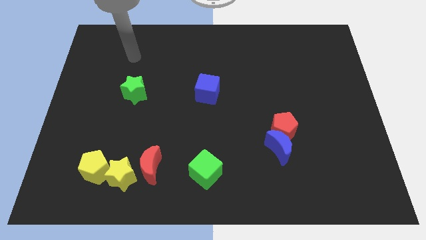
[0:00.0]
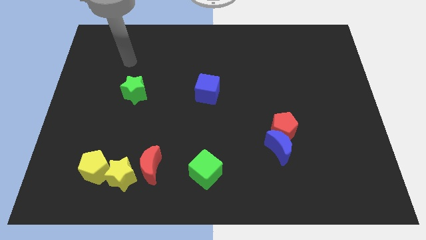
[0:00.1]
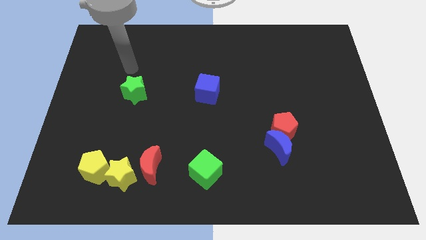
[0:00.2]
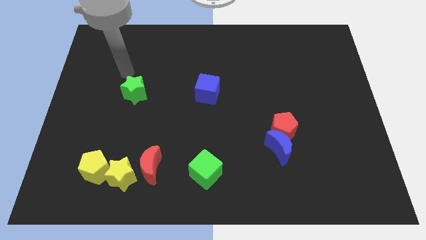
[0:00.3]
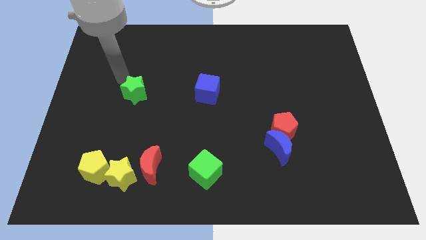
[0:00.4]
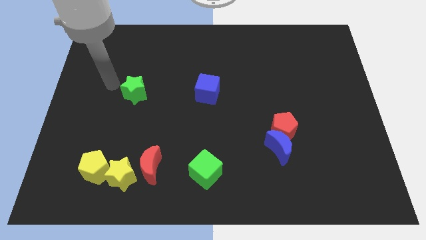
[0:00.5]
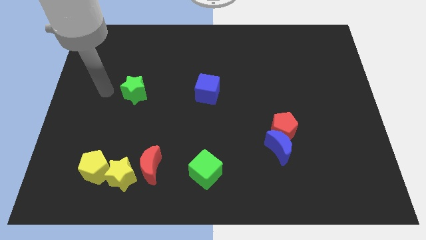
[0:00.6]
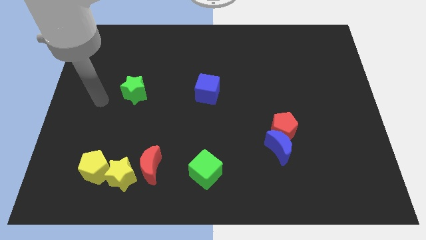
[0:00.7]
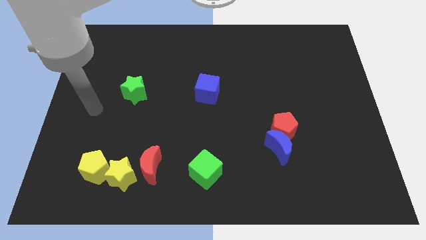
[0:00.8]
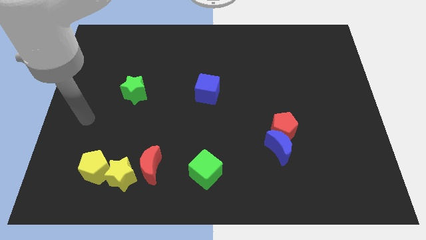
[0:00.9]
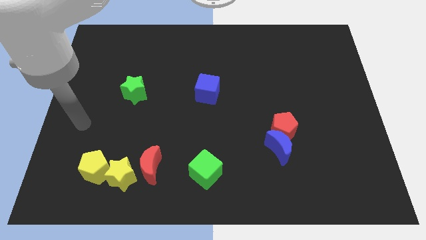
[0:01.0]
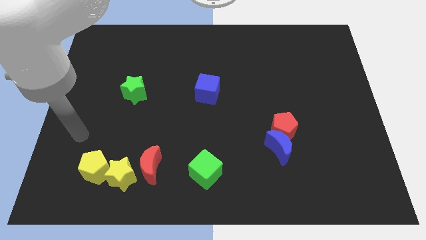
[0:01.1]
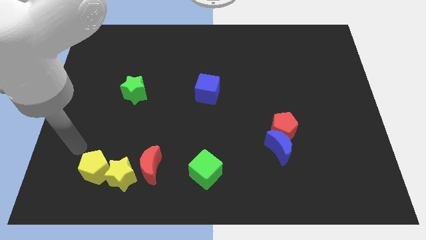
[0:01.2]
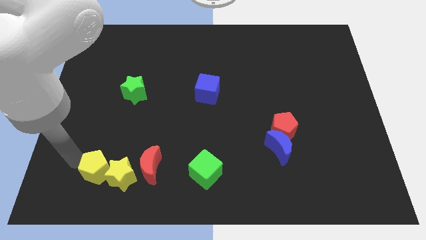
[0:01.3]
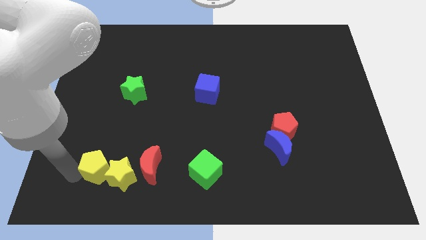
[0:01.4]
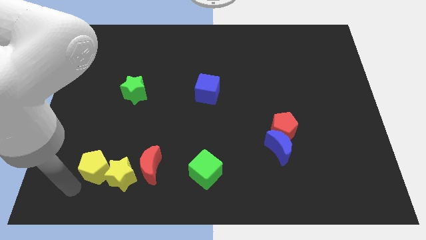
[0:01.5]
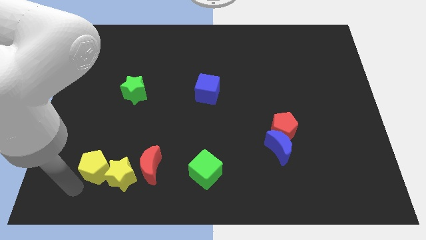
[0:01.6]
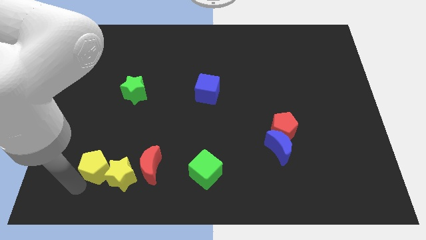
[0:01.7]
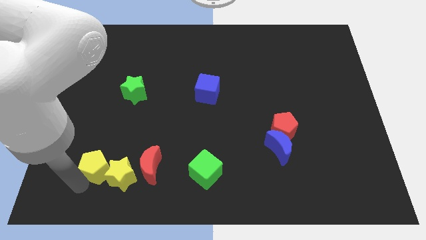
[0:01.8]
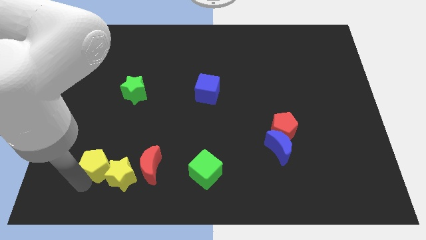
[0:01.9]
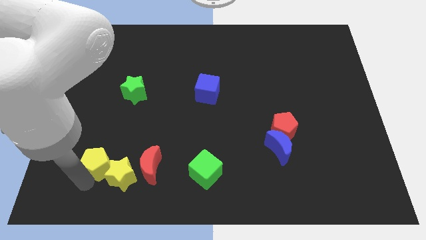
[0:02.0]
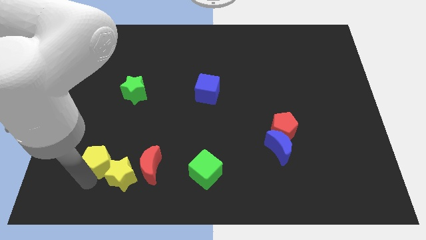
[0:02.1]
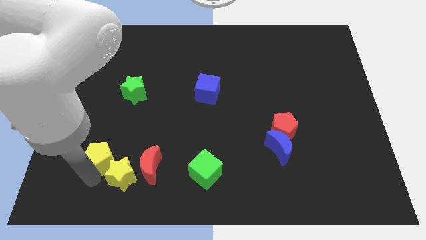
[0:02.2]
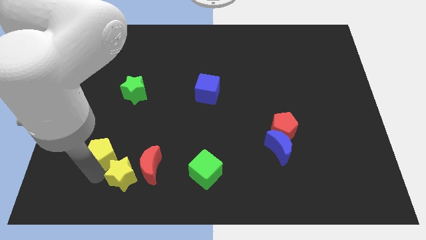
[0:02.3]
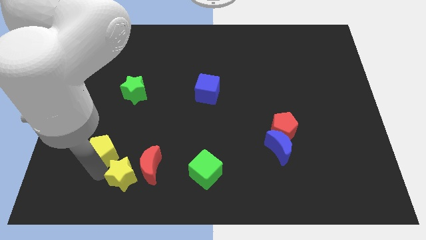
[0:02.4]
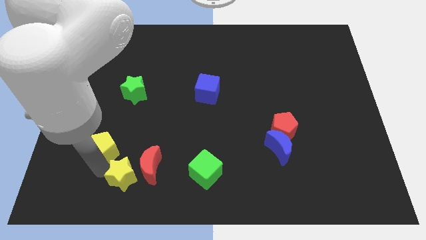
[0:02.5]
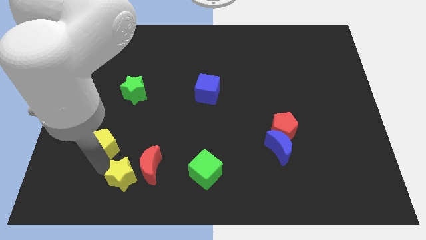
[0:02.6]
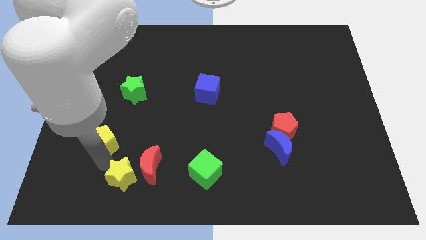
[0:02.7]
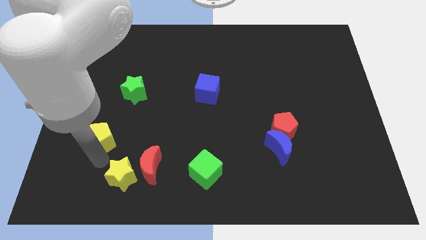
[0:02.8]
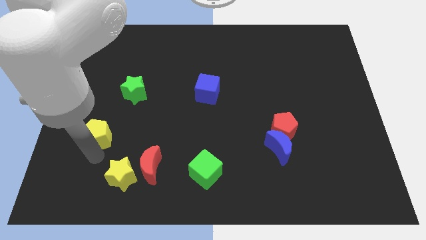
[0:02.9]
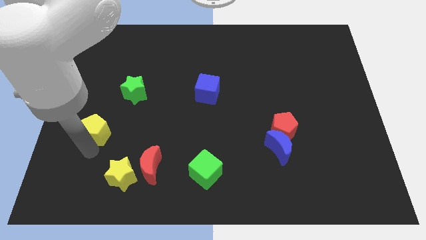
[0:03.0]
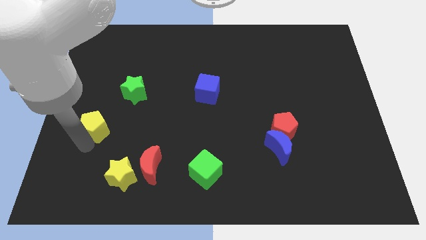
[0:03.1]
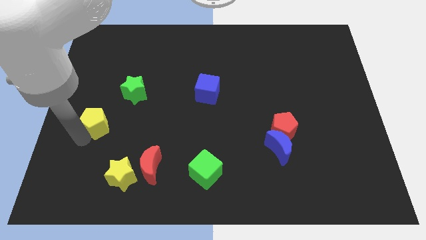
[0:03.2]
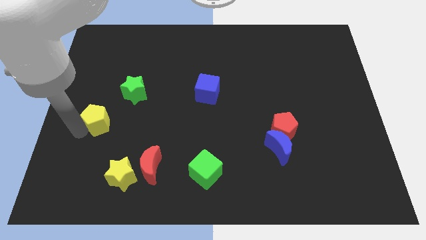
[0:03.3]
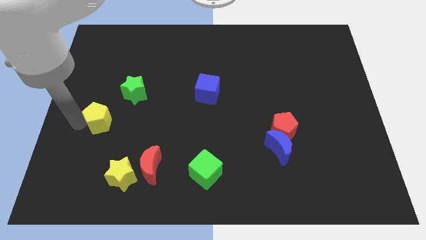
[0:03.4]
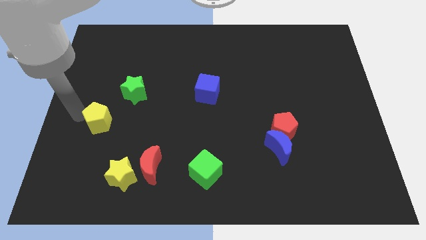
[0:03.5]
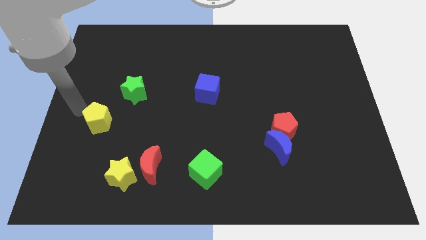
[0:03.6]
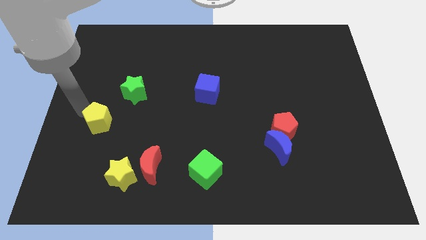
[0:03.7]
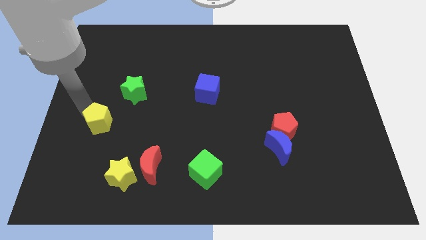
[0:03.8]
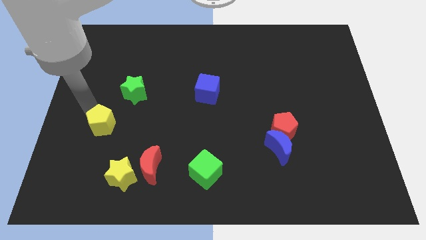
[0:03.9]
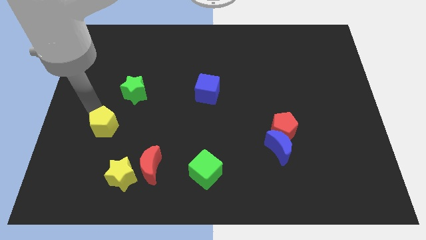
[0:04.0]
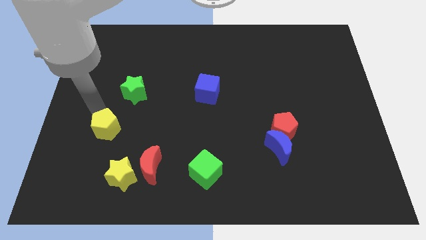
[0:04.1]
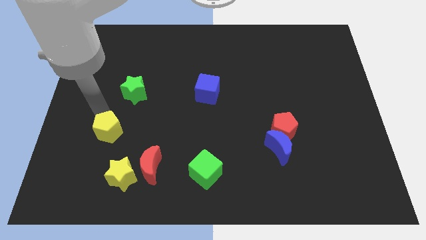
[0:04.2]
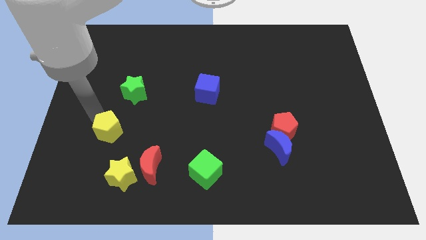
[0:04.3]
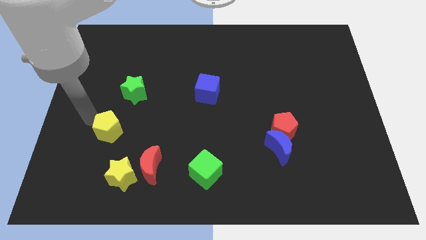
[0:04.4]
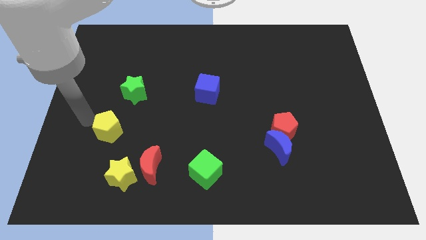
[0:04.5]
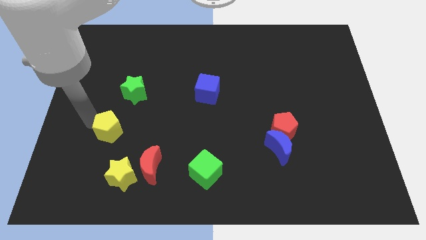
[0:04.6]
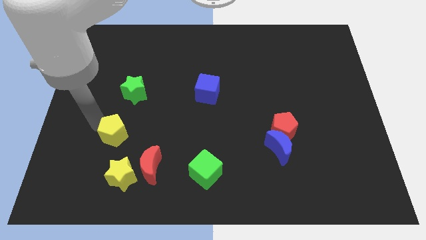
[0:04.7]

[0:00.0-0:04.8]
slightly slide the yellow pentagon upwards and then to the right

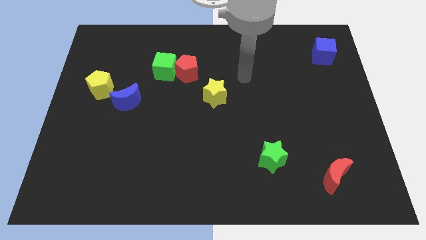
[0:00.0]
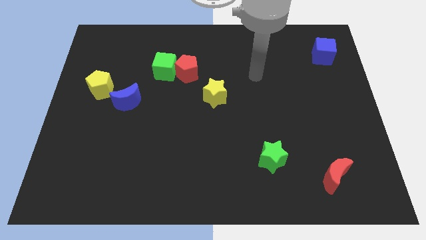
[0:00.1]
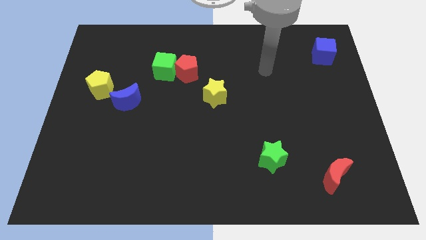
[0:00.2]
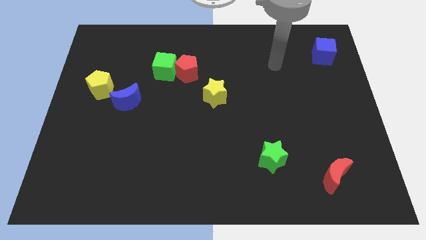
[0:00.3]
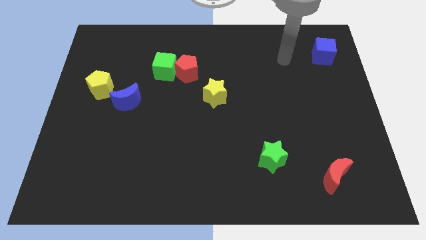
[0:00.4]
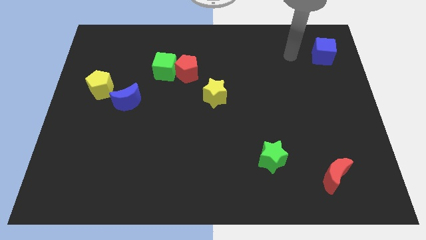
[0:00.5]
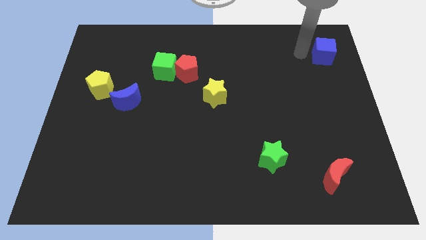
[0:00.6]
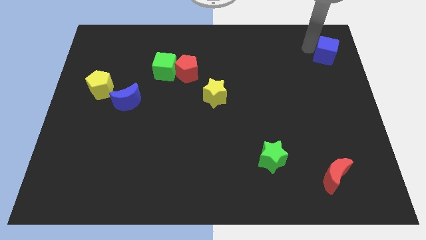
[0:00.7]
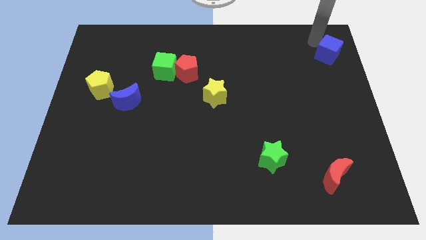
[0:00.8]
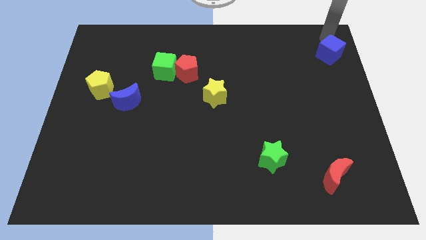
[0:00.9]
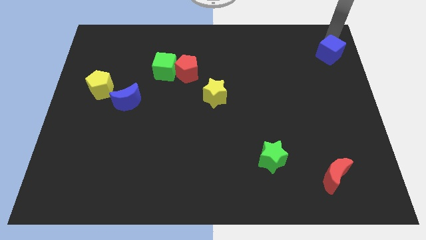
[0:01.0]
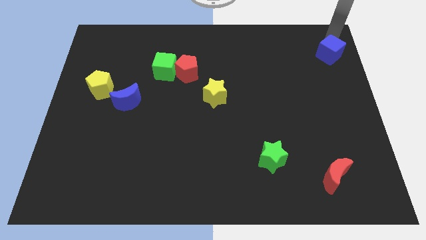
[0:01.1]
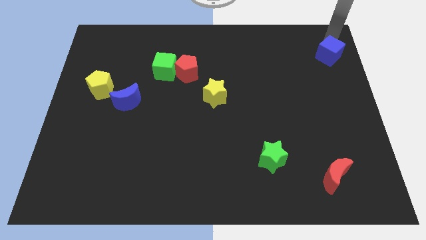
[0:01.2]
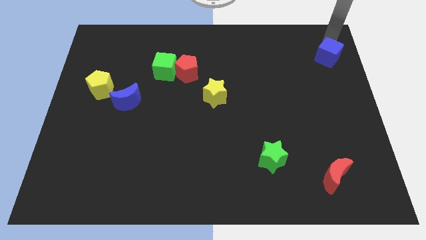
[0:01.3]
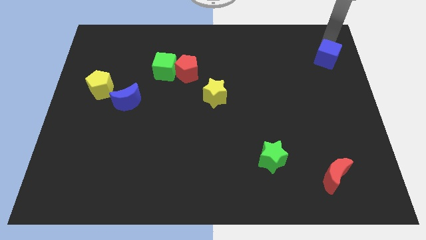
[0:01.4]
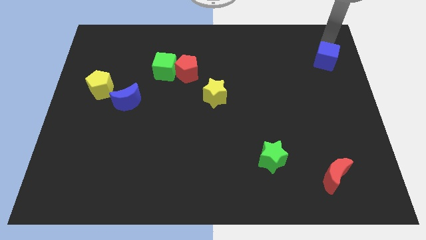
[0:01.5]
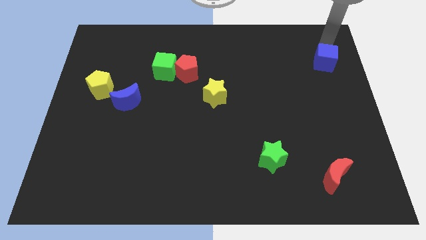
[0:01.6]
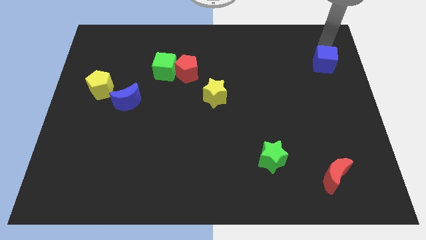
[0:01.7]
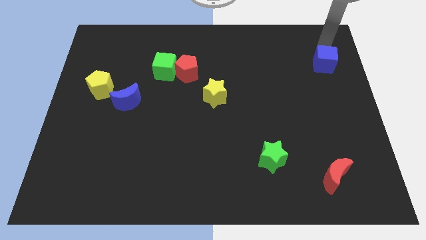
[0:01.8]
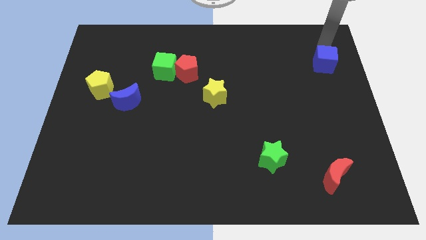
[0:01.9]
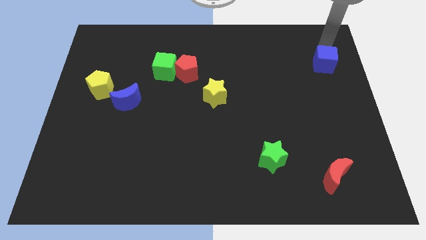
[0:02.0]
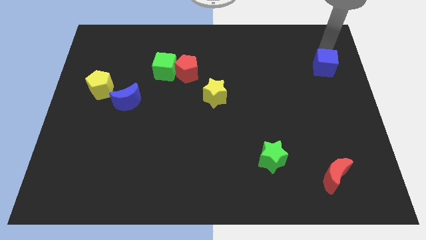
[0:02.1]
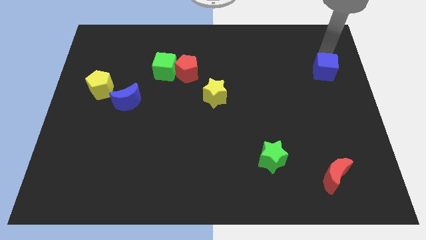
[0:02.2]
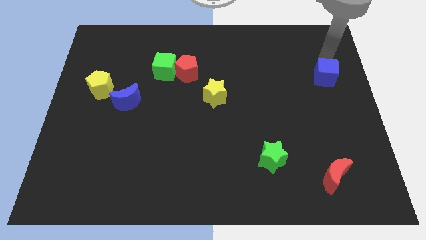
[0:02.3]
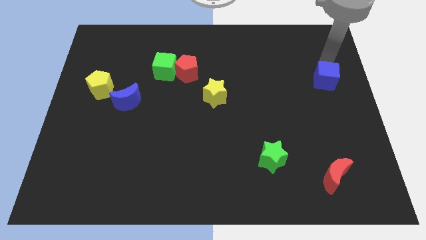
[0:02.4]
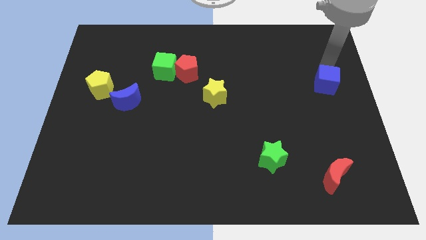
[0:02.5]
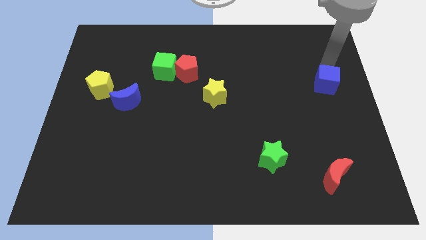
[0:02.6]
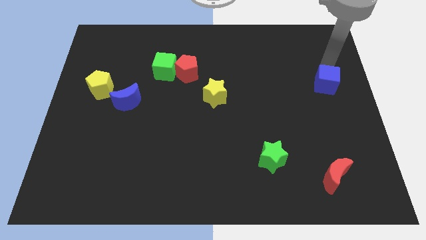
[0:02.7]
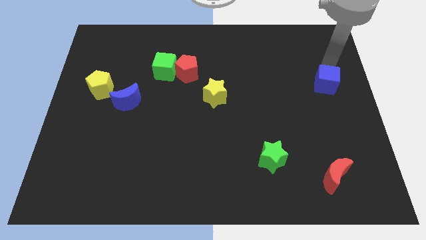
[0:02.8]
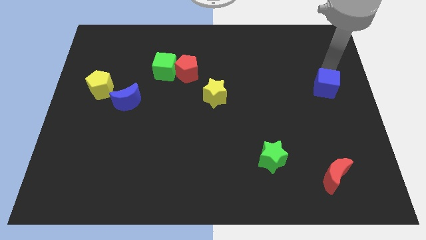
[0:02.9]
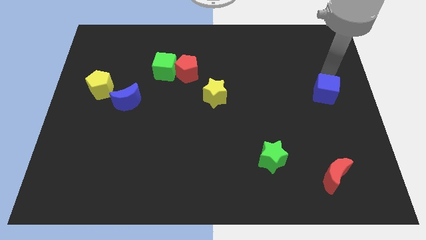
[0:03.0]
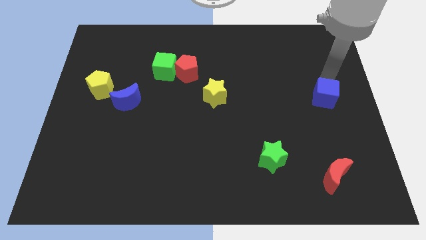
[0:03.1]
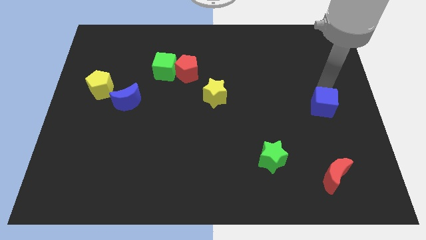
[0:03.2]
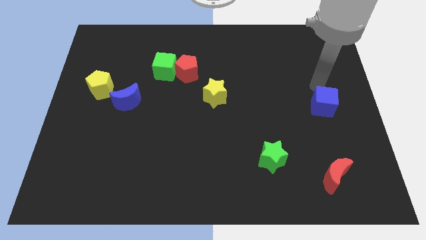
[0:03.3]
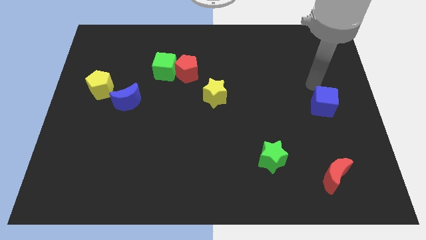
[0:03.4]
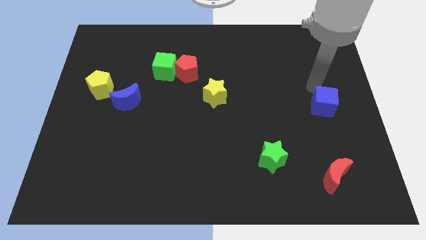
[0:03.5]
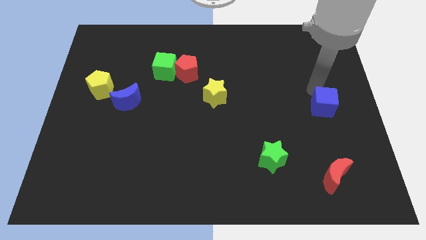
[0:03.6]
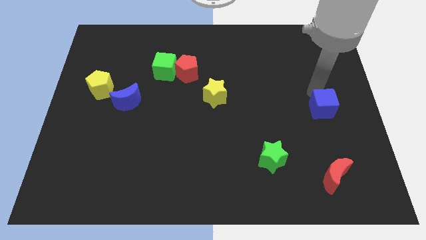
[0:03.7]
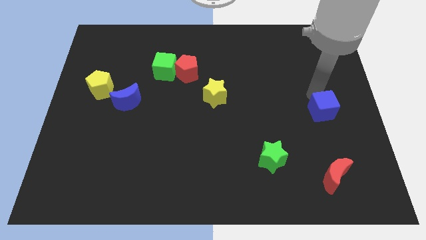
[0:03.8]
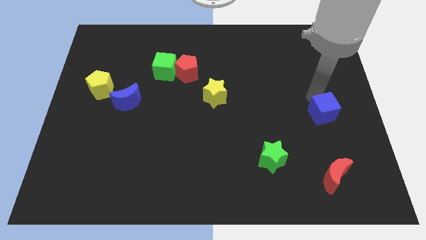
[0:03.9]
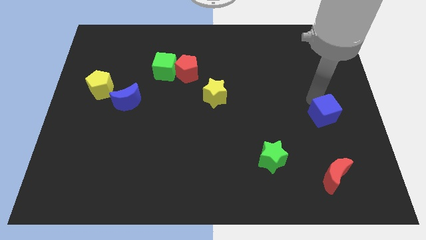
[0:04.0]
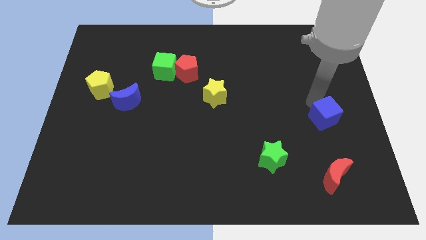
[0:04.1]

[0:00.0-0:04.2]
move the blue cube downwards
